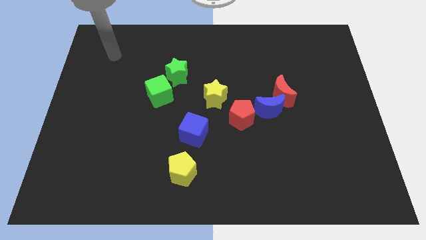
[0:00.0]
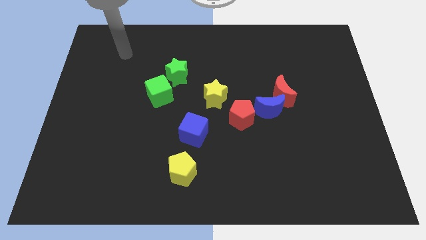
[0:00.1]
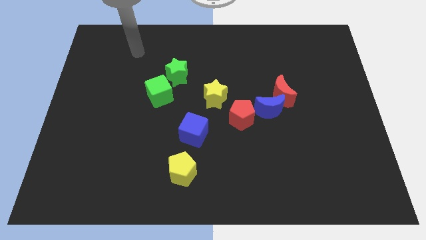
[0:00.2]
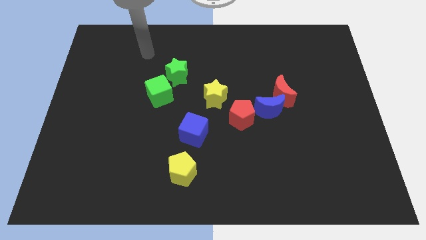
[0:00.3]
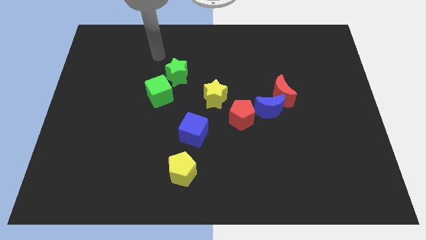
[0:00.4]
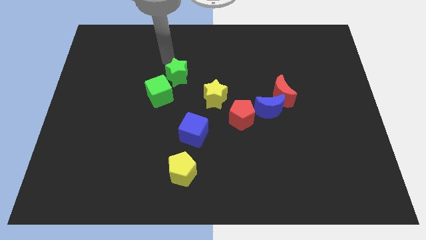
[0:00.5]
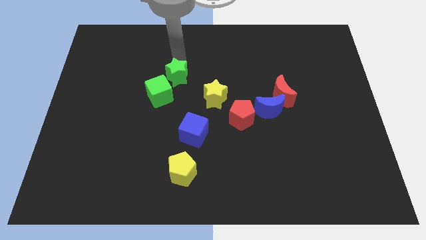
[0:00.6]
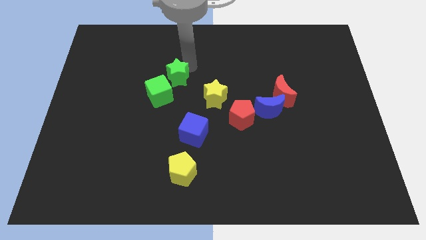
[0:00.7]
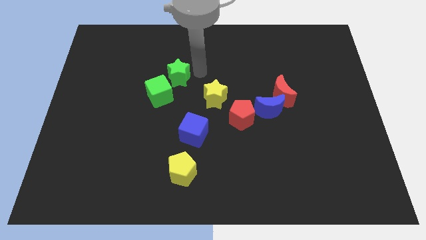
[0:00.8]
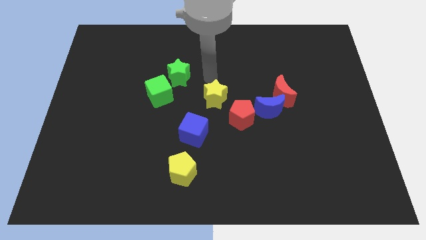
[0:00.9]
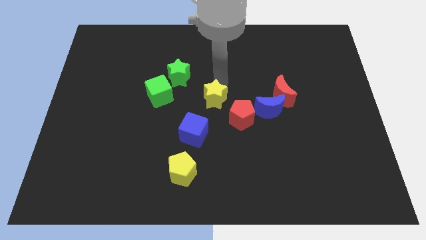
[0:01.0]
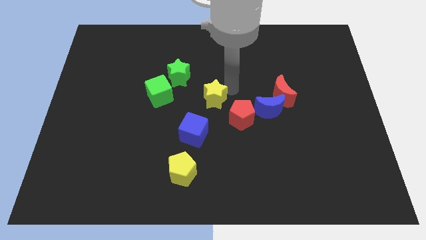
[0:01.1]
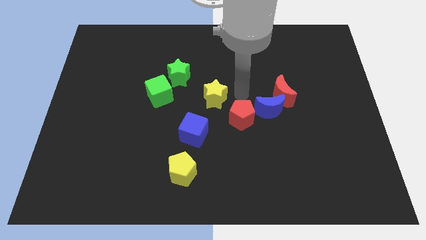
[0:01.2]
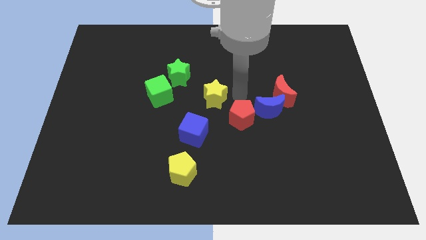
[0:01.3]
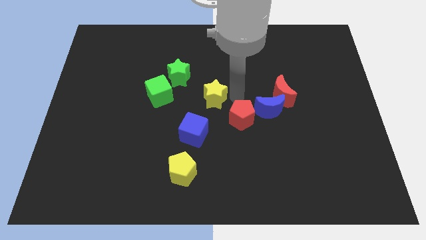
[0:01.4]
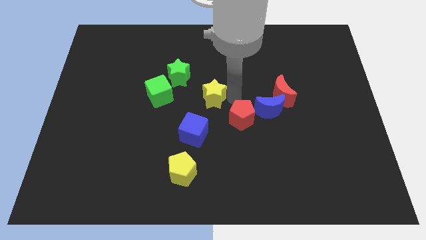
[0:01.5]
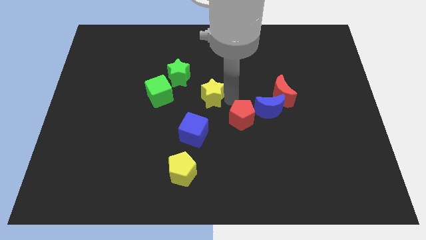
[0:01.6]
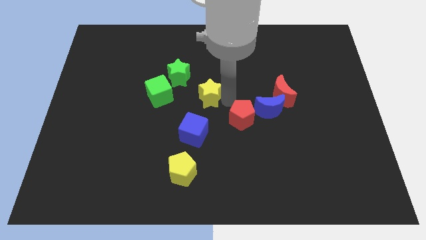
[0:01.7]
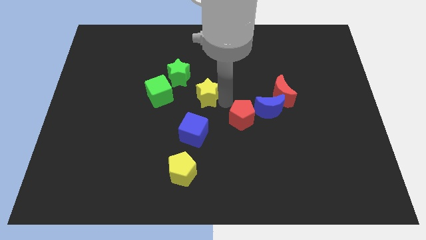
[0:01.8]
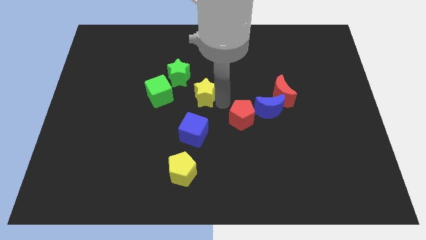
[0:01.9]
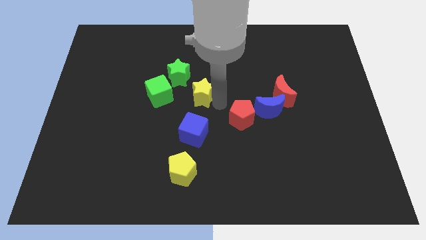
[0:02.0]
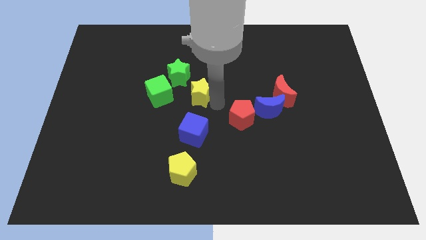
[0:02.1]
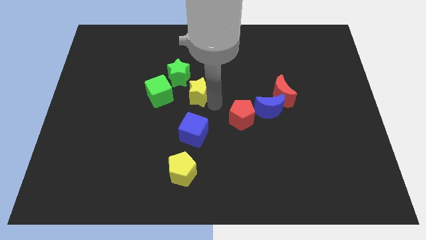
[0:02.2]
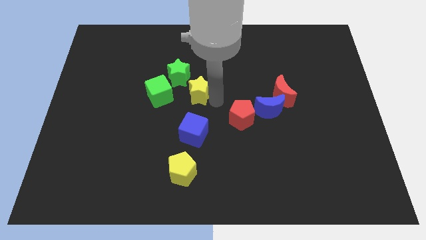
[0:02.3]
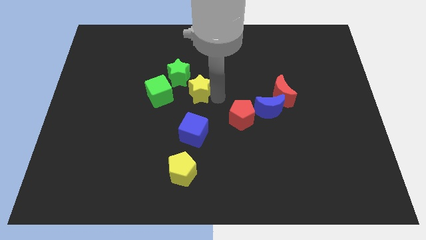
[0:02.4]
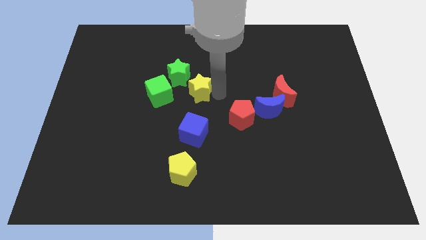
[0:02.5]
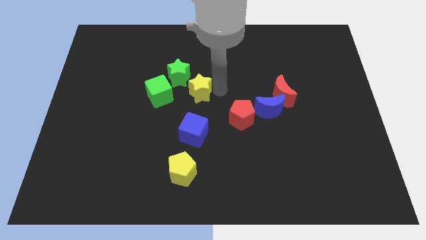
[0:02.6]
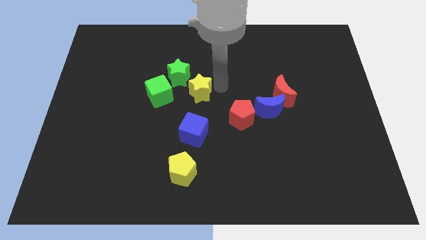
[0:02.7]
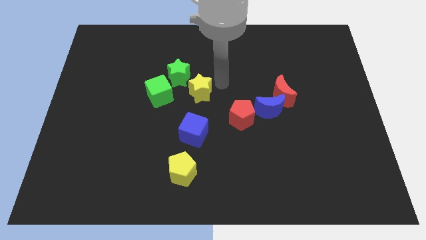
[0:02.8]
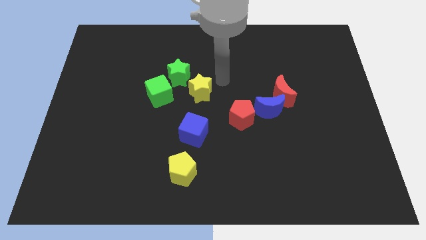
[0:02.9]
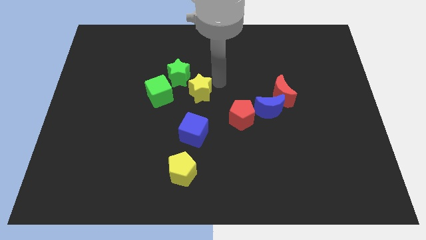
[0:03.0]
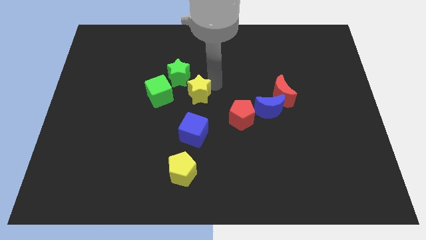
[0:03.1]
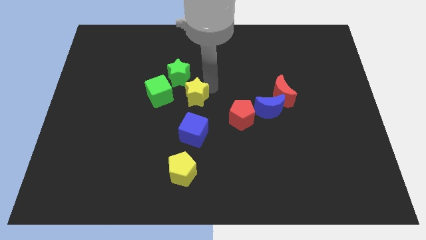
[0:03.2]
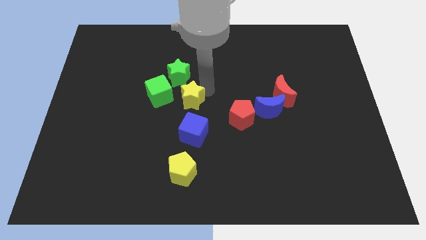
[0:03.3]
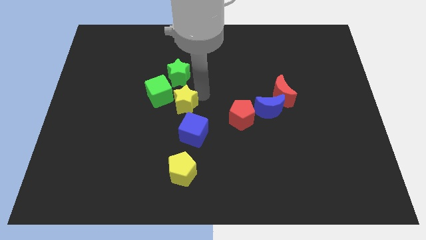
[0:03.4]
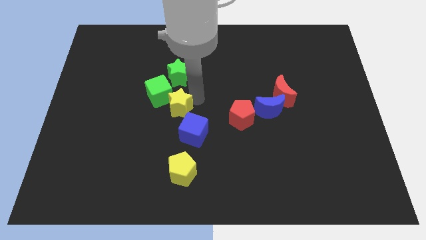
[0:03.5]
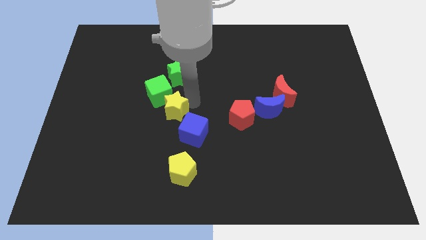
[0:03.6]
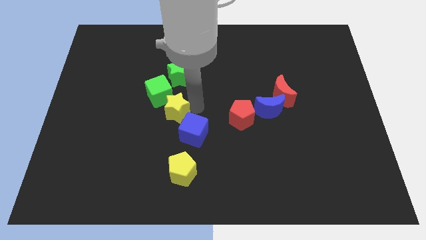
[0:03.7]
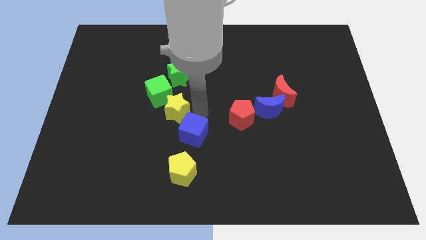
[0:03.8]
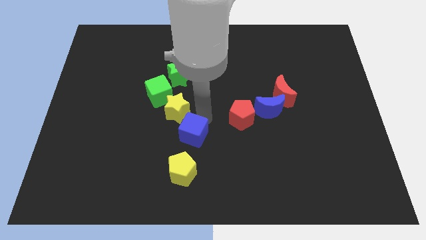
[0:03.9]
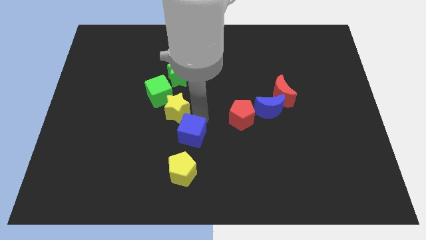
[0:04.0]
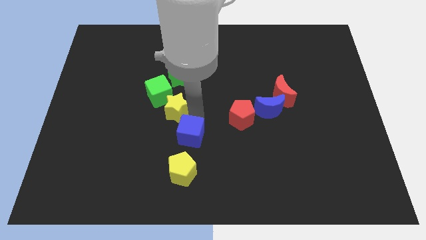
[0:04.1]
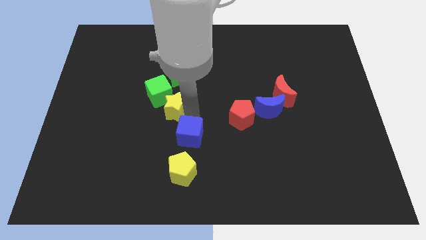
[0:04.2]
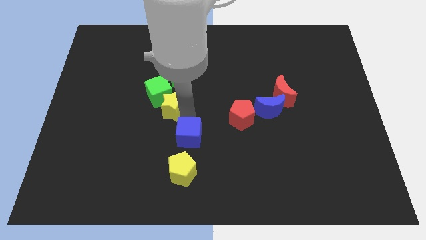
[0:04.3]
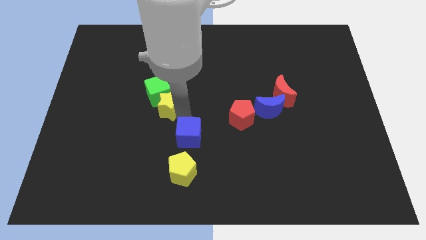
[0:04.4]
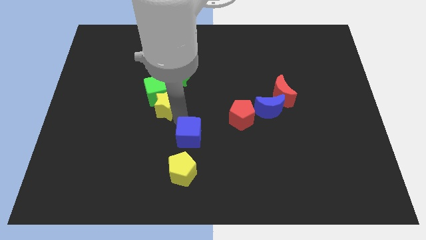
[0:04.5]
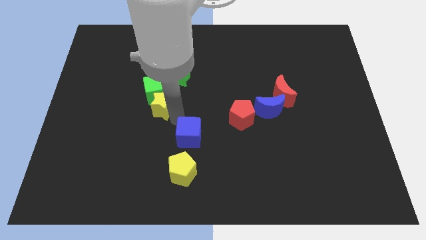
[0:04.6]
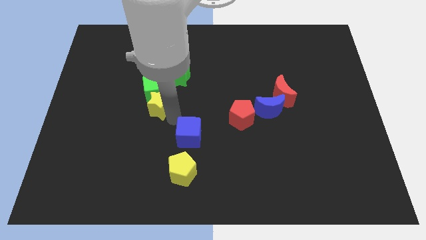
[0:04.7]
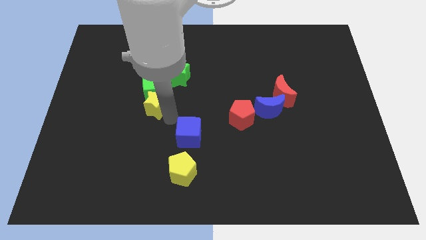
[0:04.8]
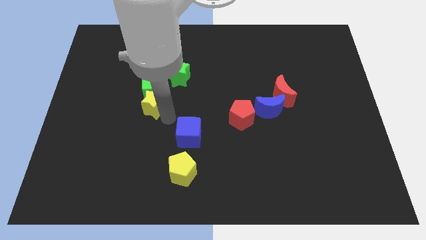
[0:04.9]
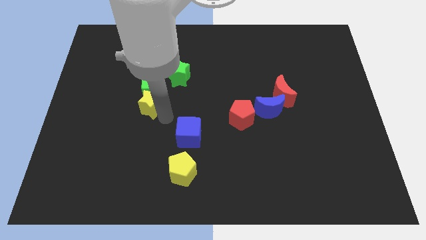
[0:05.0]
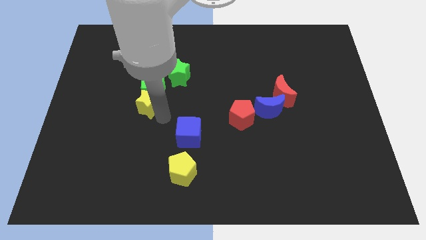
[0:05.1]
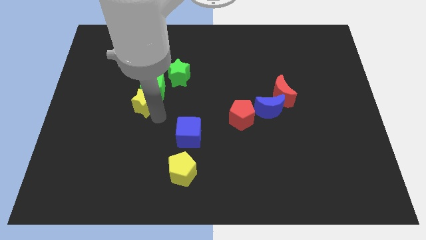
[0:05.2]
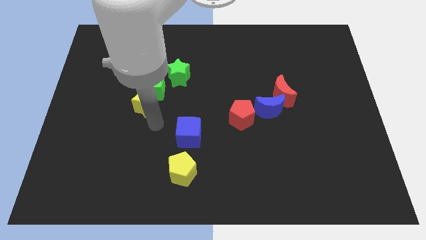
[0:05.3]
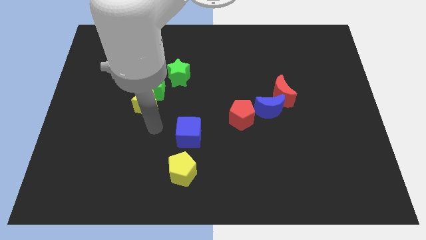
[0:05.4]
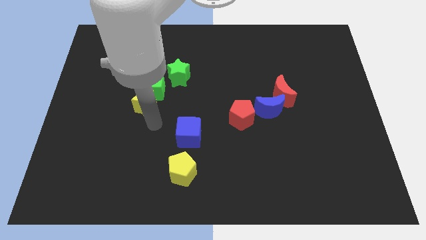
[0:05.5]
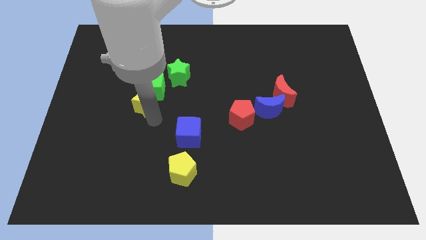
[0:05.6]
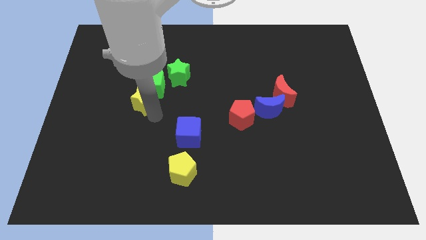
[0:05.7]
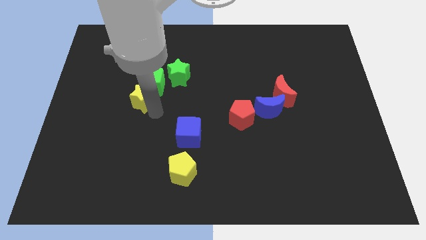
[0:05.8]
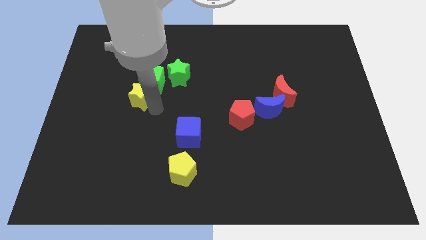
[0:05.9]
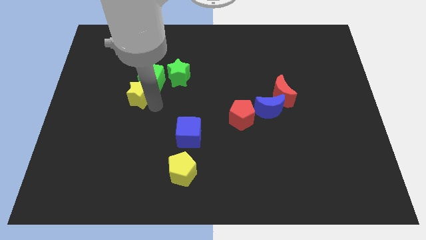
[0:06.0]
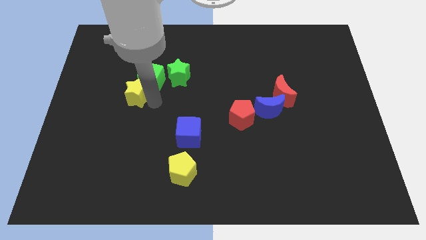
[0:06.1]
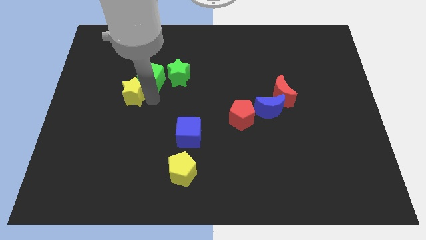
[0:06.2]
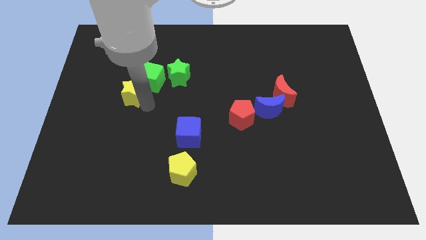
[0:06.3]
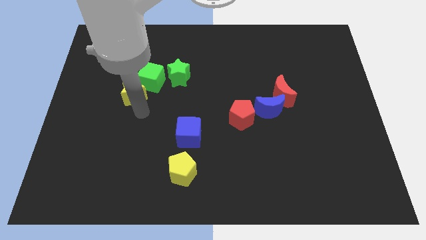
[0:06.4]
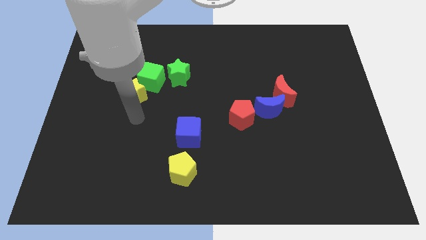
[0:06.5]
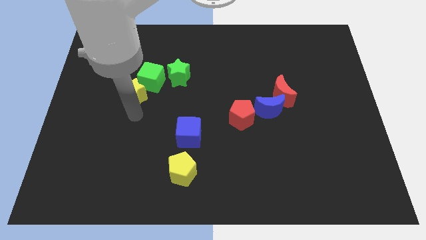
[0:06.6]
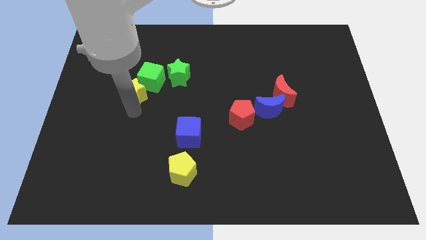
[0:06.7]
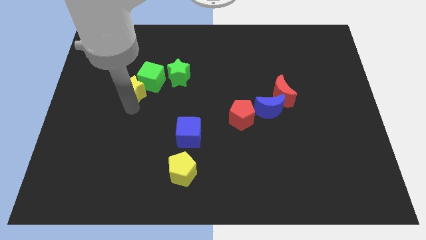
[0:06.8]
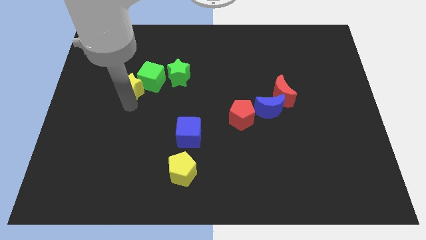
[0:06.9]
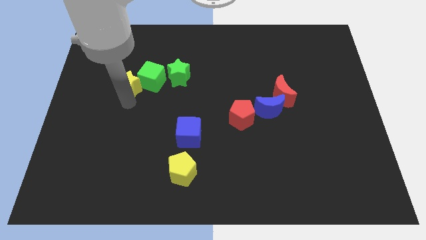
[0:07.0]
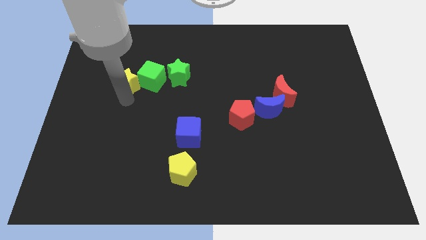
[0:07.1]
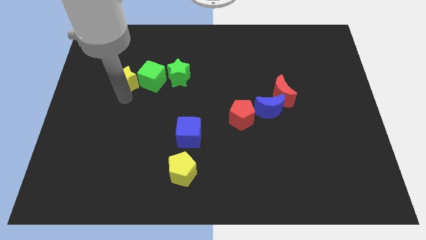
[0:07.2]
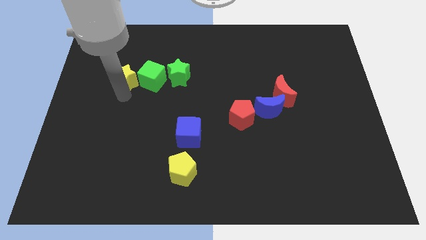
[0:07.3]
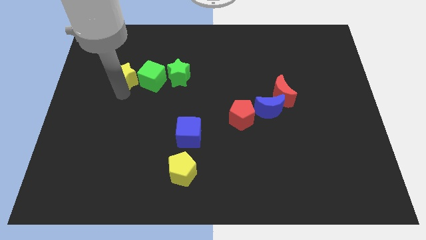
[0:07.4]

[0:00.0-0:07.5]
move the yellow star to the top left of the green cube
